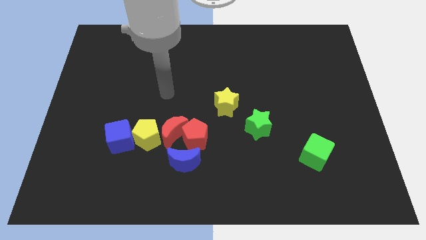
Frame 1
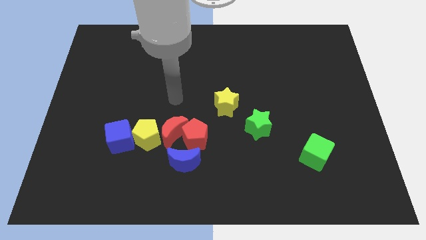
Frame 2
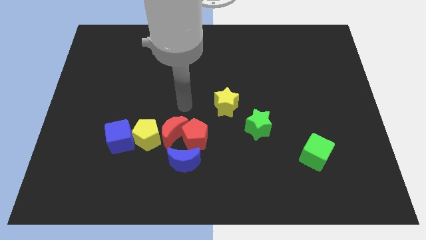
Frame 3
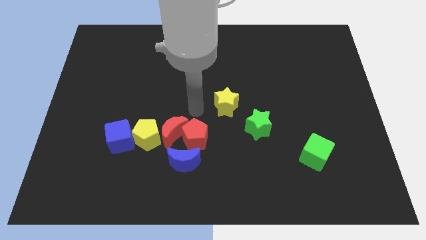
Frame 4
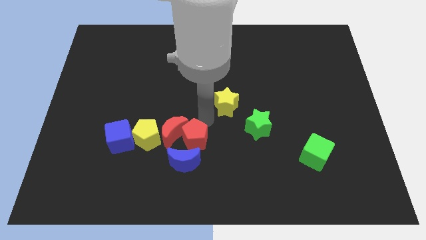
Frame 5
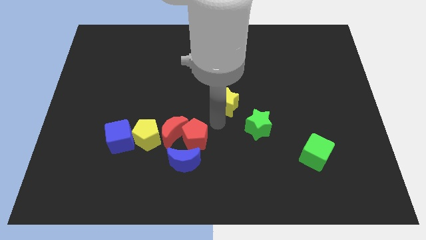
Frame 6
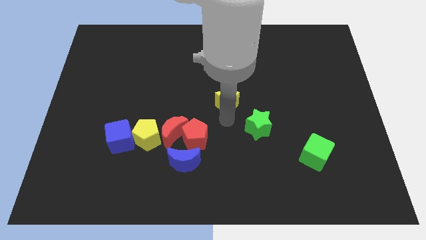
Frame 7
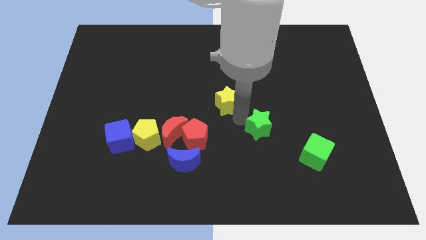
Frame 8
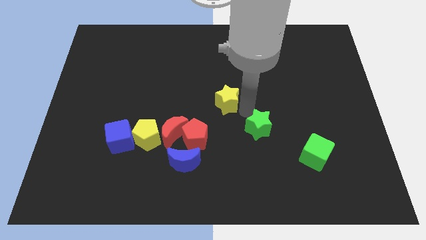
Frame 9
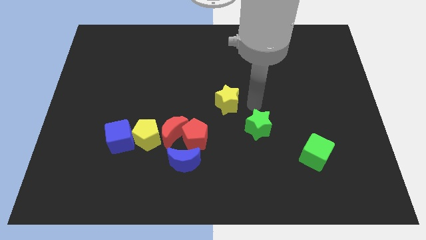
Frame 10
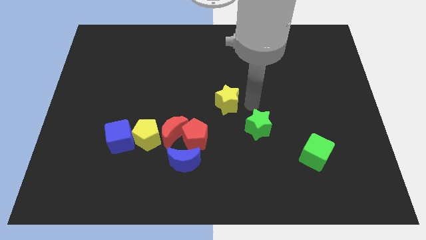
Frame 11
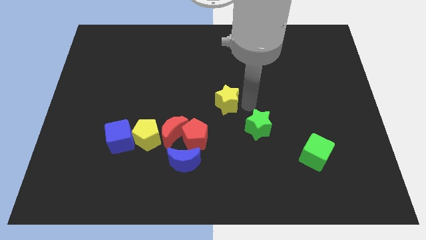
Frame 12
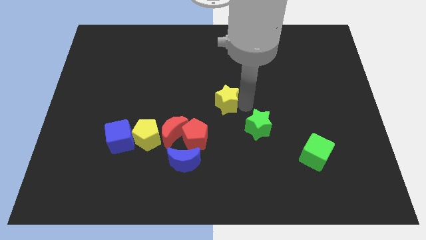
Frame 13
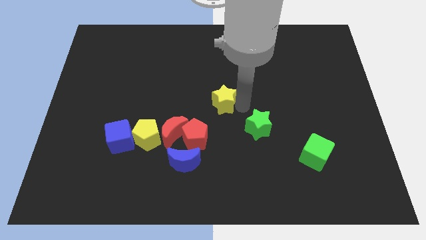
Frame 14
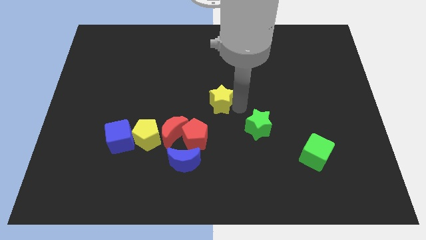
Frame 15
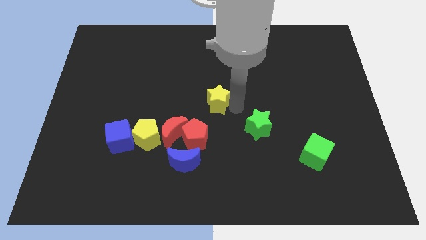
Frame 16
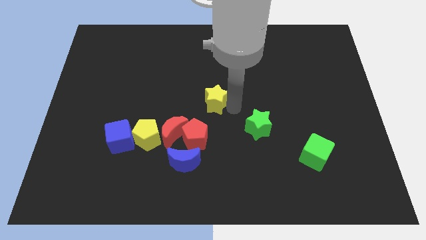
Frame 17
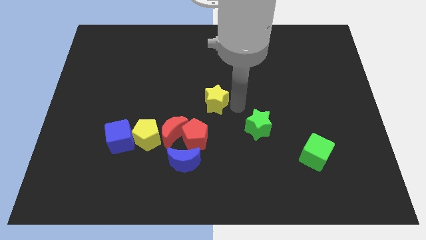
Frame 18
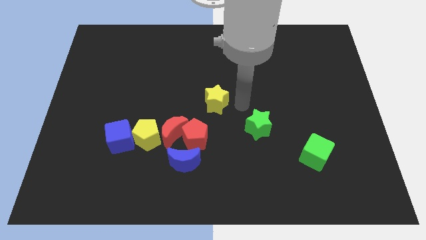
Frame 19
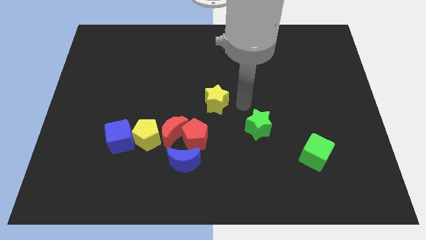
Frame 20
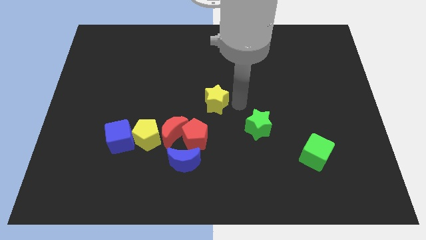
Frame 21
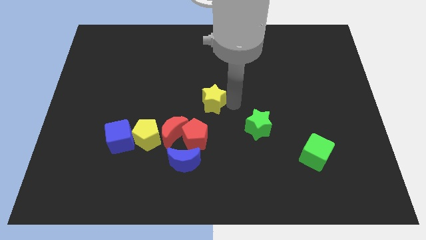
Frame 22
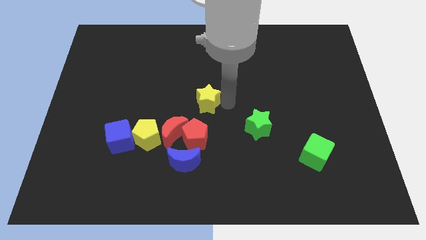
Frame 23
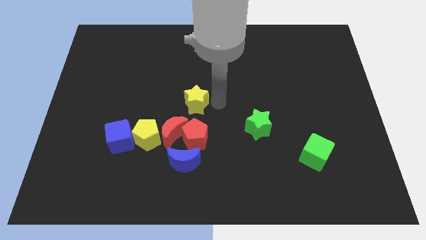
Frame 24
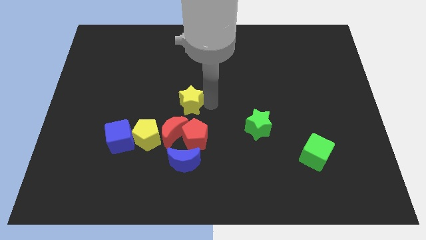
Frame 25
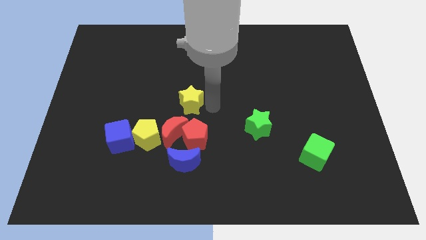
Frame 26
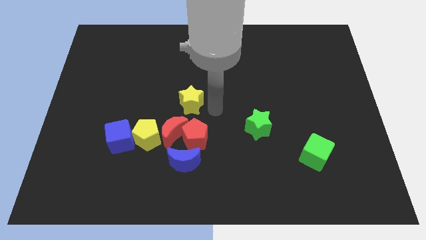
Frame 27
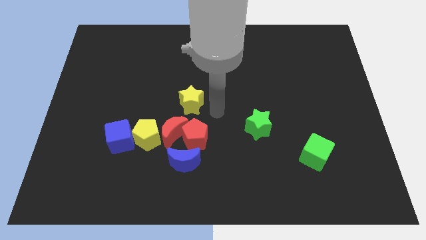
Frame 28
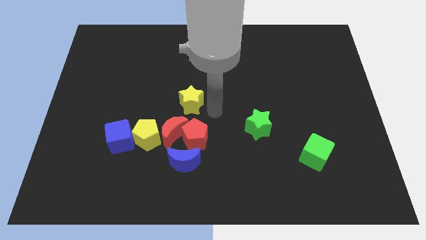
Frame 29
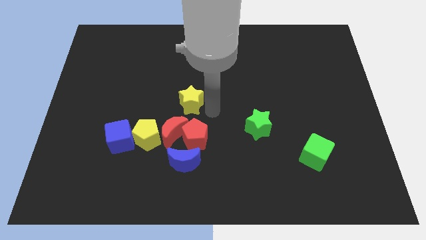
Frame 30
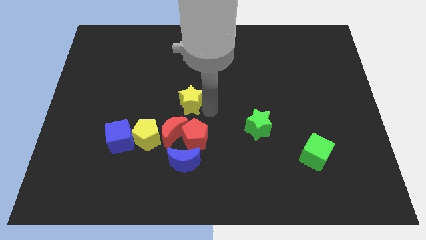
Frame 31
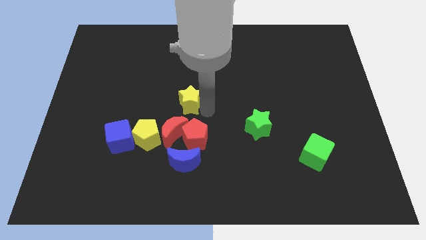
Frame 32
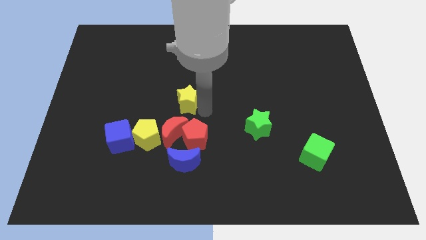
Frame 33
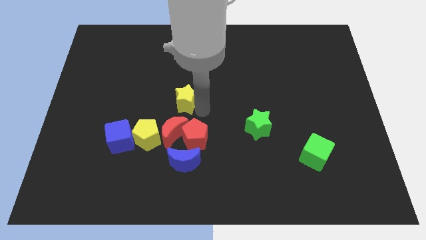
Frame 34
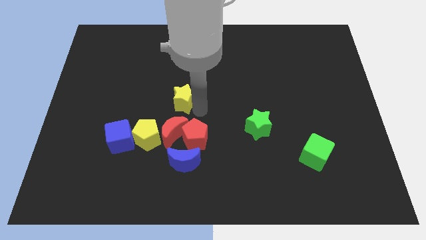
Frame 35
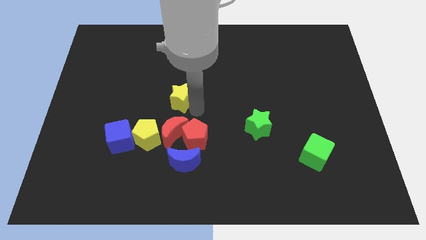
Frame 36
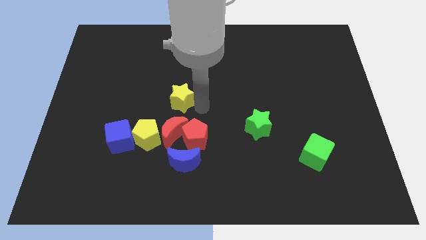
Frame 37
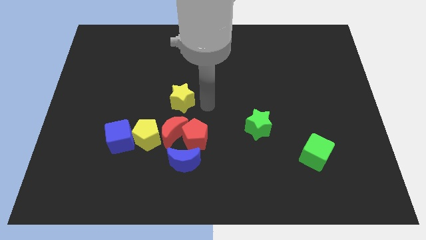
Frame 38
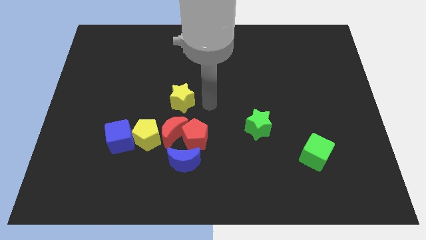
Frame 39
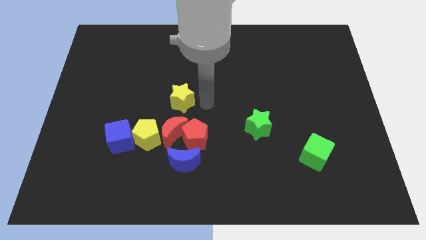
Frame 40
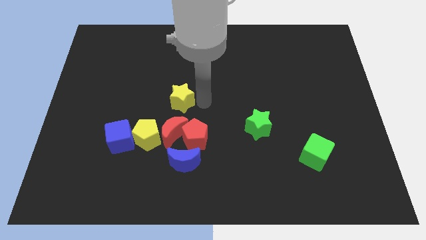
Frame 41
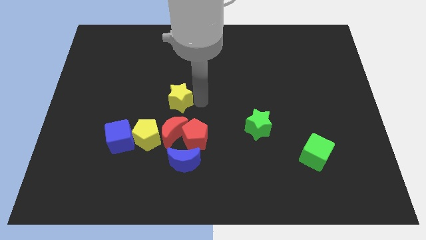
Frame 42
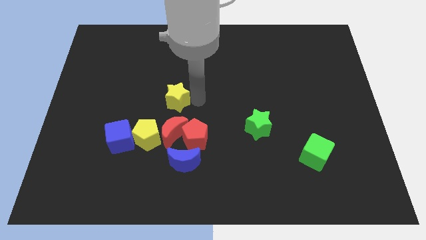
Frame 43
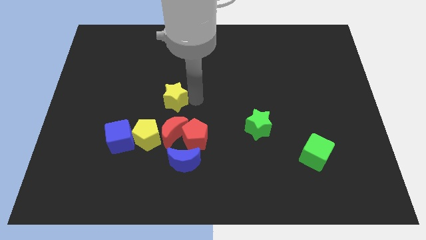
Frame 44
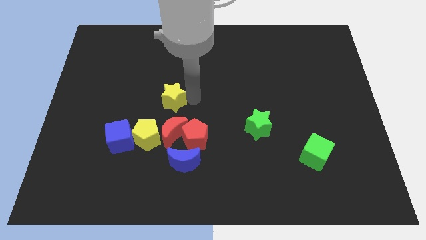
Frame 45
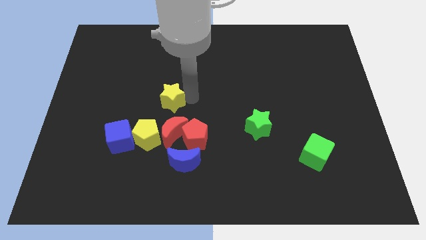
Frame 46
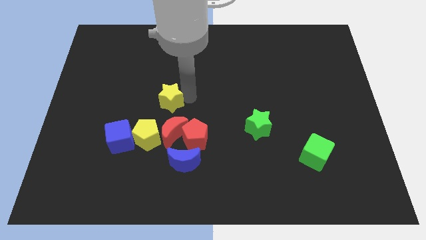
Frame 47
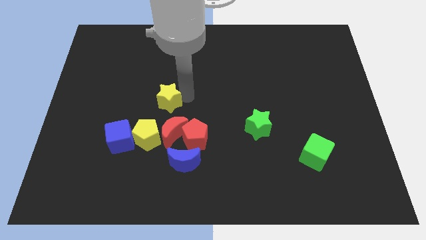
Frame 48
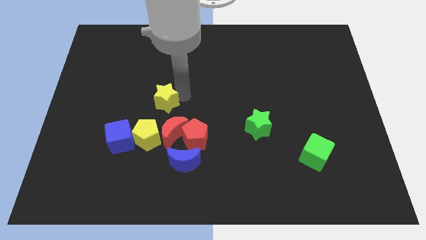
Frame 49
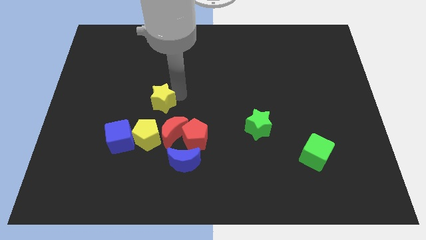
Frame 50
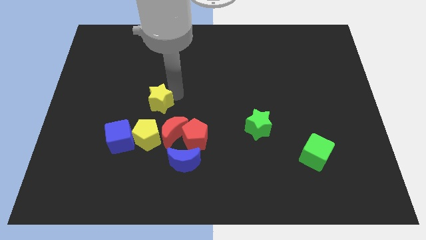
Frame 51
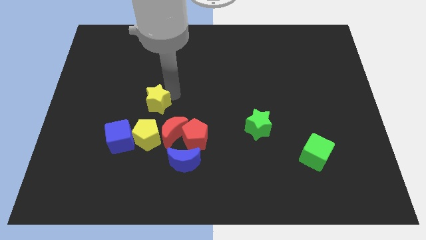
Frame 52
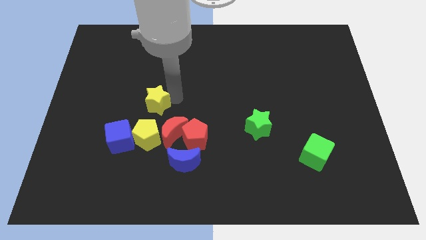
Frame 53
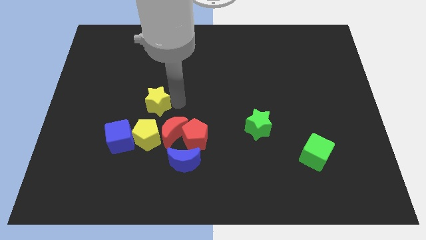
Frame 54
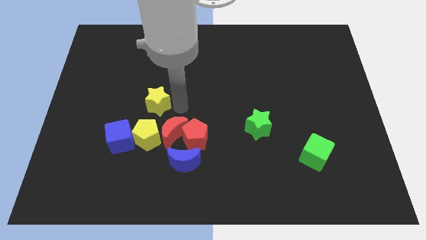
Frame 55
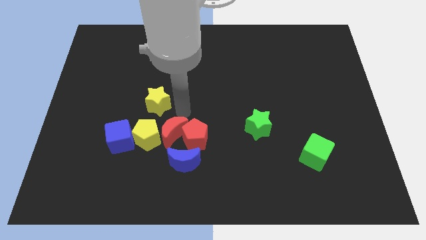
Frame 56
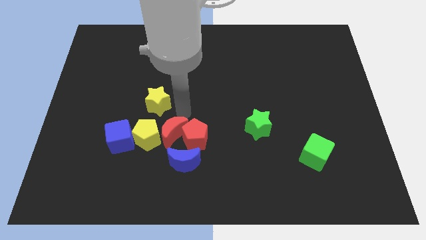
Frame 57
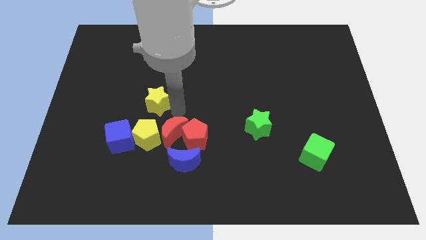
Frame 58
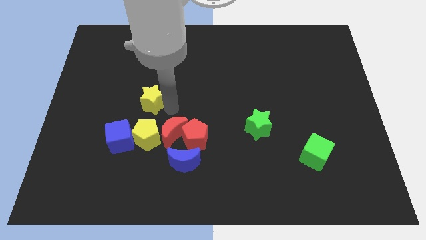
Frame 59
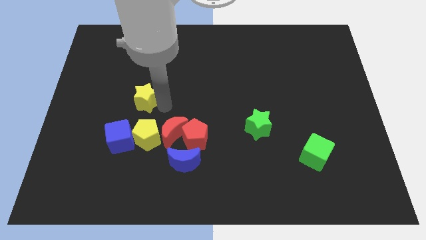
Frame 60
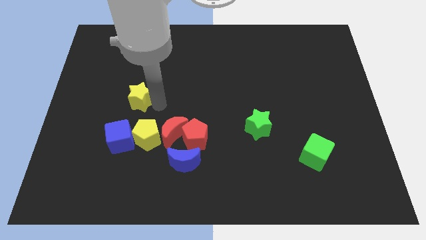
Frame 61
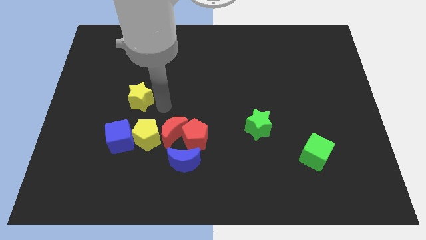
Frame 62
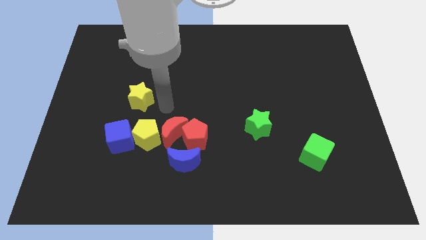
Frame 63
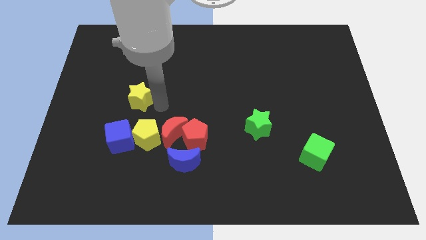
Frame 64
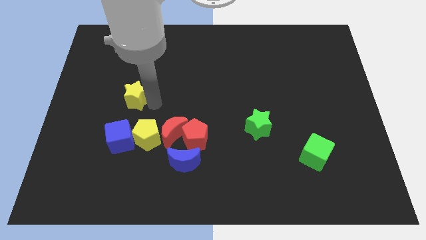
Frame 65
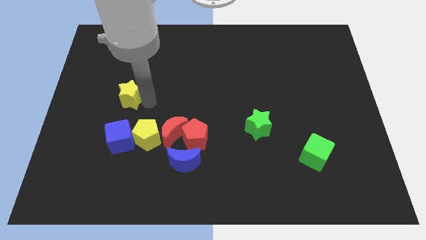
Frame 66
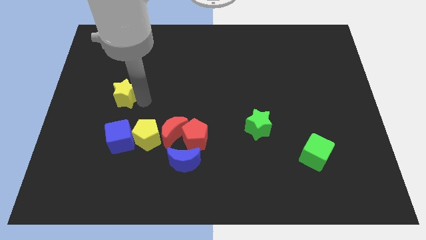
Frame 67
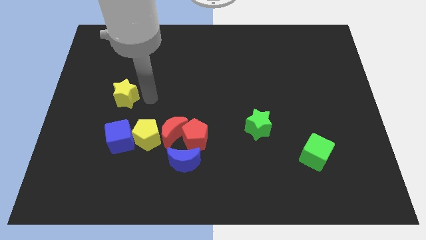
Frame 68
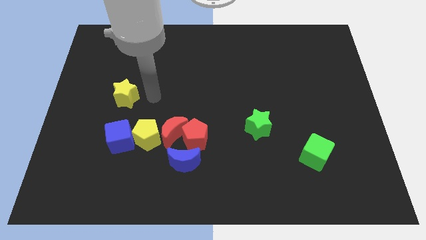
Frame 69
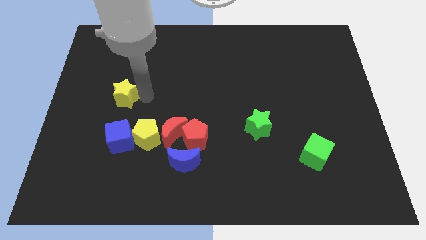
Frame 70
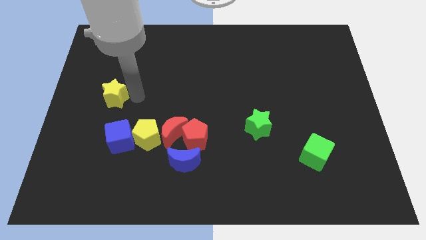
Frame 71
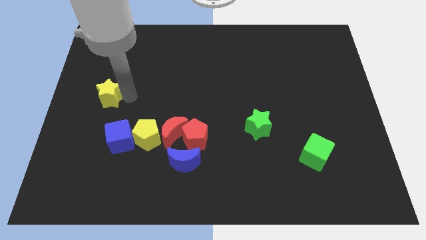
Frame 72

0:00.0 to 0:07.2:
put the yellow star to the left side
